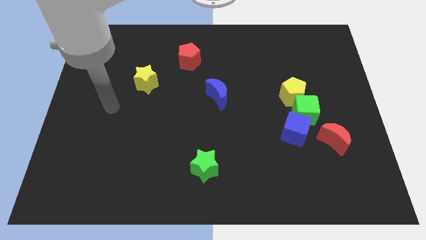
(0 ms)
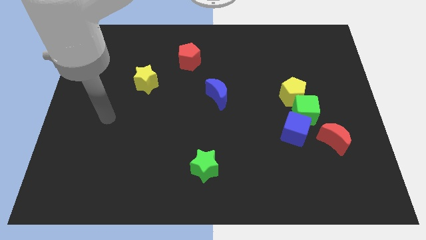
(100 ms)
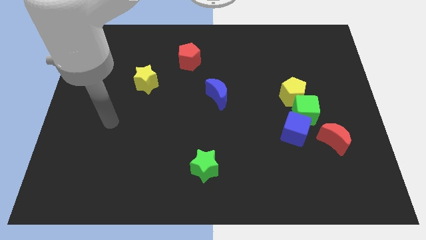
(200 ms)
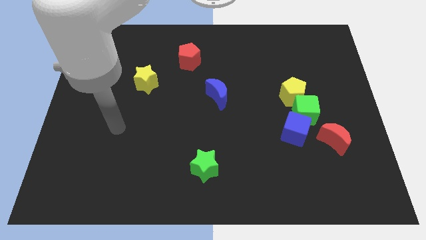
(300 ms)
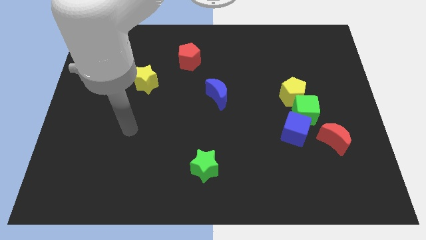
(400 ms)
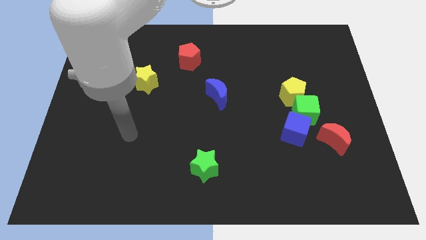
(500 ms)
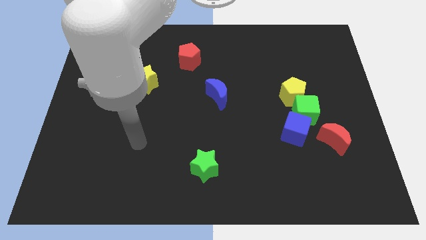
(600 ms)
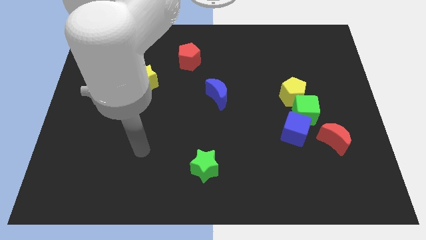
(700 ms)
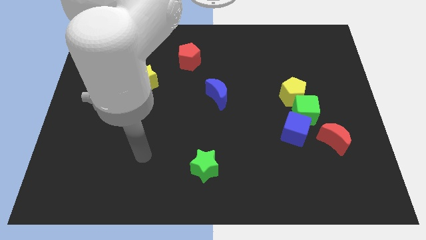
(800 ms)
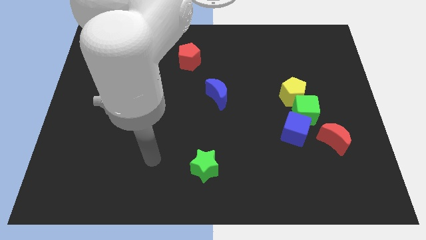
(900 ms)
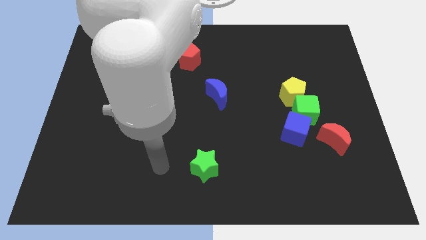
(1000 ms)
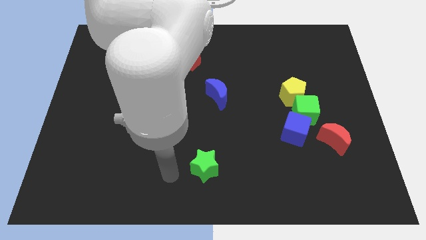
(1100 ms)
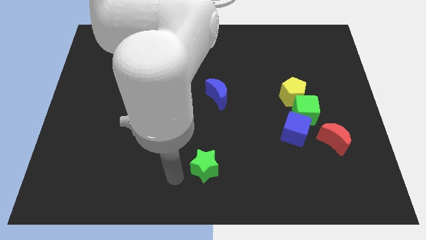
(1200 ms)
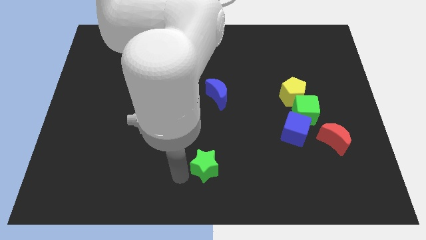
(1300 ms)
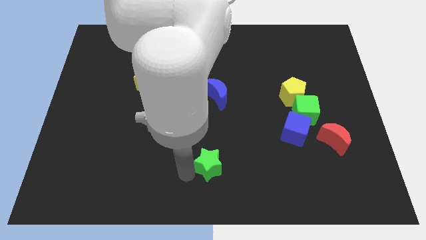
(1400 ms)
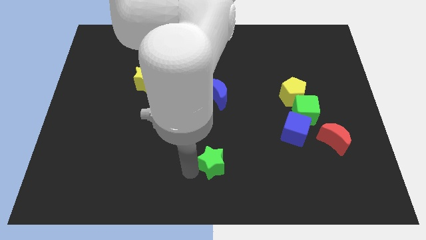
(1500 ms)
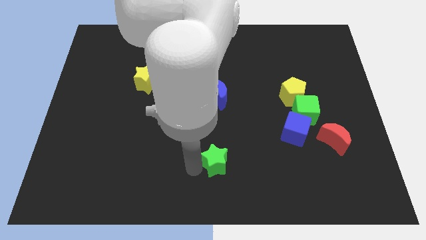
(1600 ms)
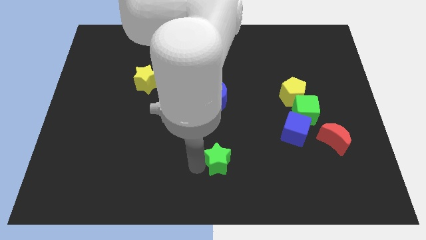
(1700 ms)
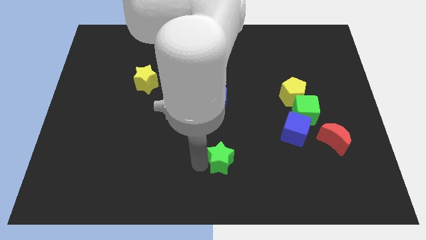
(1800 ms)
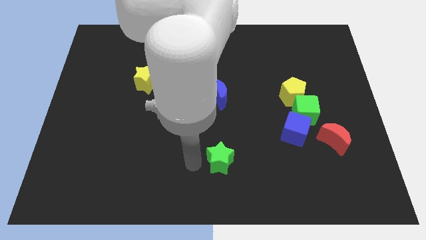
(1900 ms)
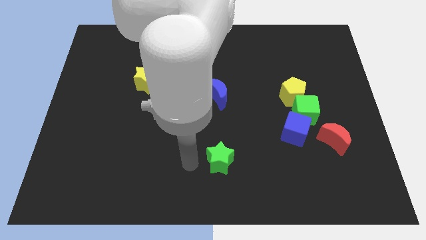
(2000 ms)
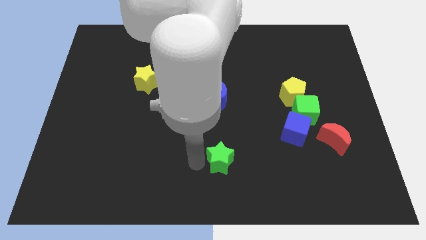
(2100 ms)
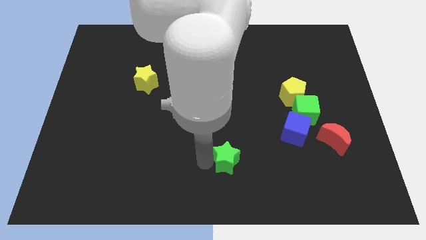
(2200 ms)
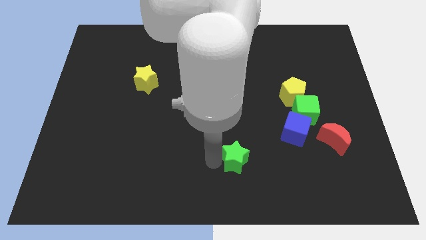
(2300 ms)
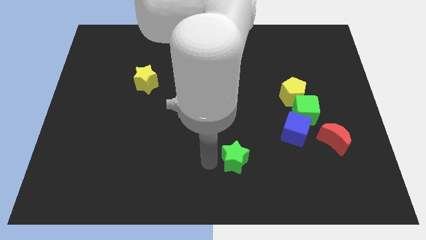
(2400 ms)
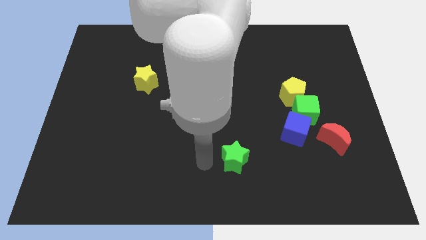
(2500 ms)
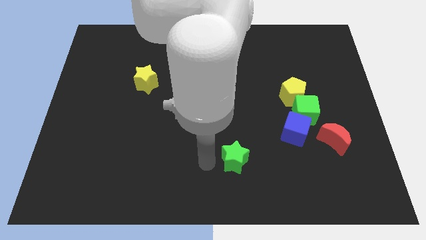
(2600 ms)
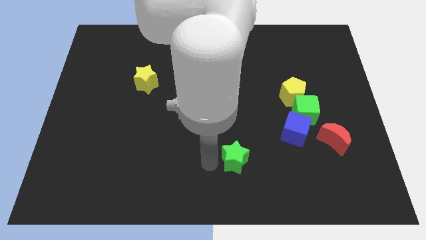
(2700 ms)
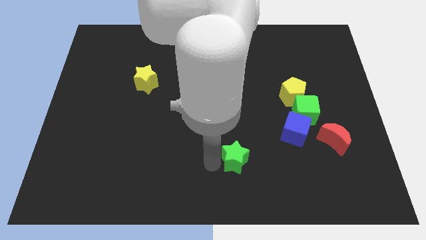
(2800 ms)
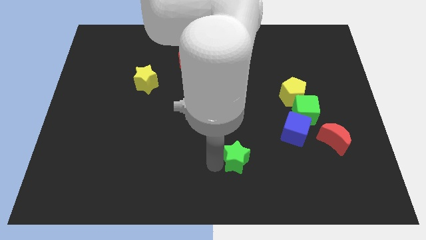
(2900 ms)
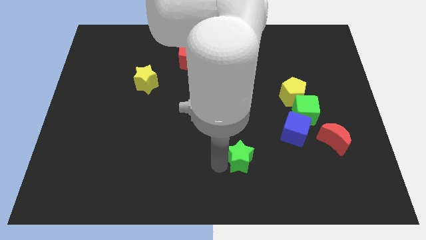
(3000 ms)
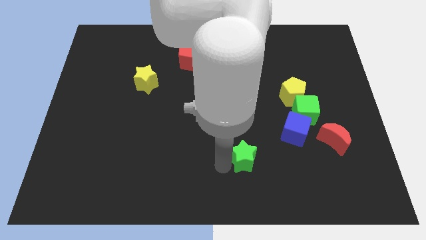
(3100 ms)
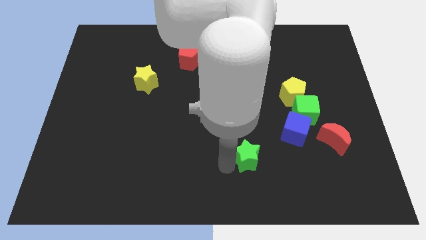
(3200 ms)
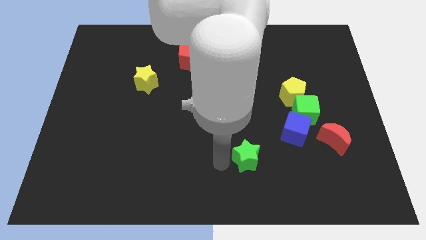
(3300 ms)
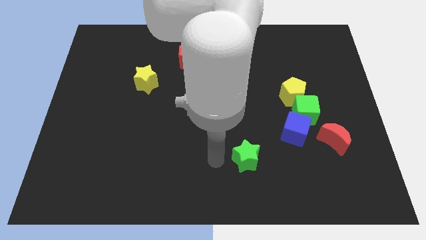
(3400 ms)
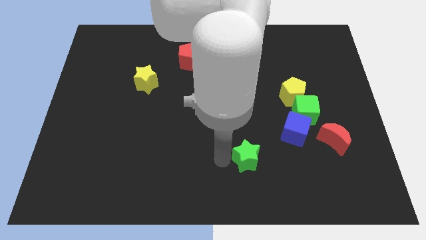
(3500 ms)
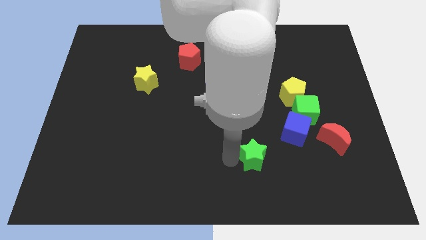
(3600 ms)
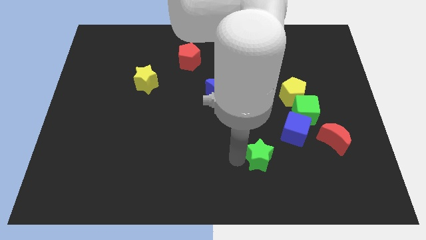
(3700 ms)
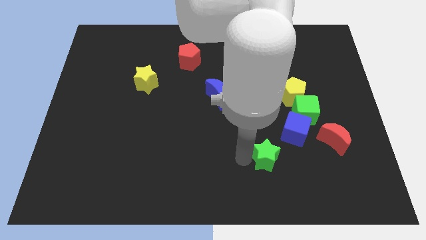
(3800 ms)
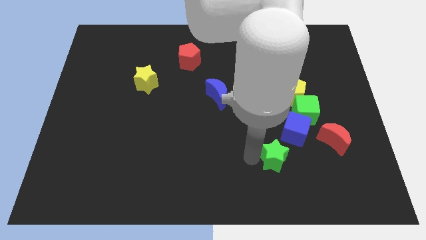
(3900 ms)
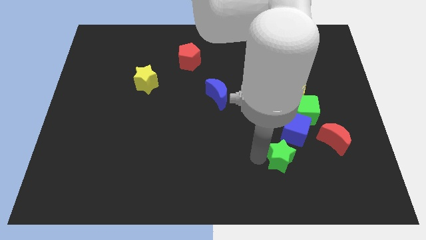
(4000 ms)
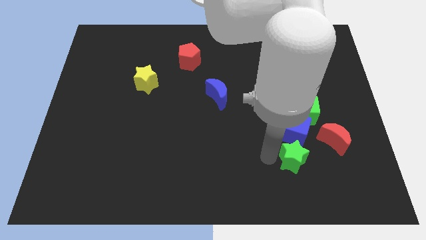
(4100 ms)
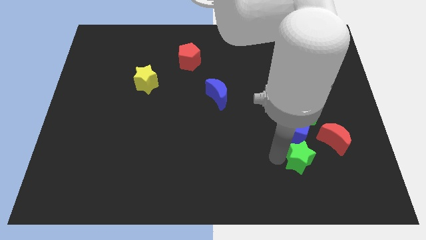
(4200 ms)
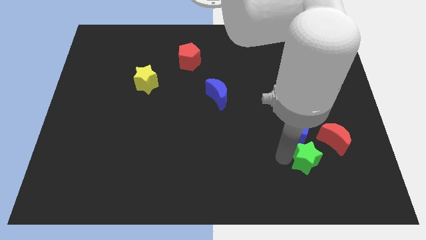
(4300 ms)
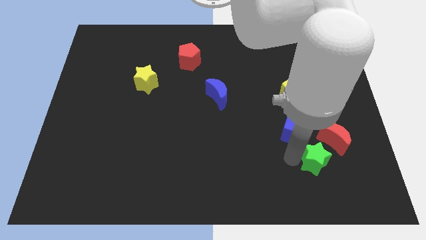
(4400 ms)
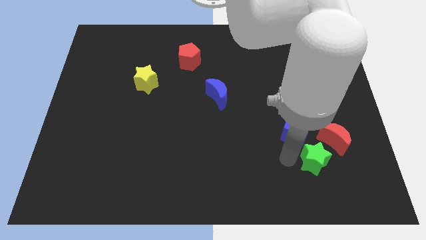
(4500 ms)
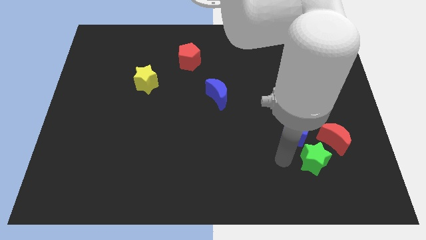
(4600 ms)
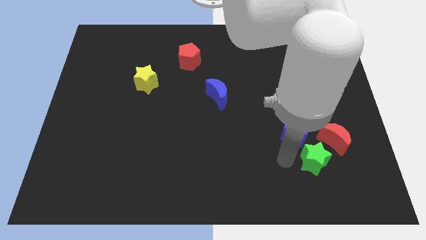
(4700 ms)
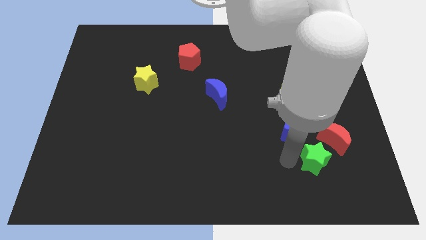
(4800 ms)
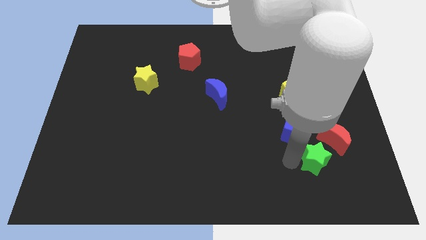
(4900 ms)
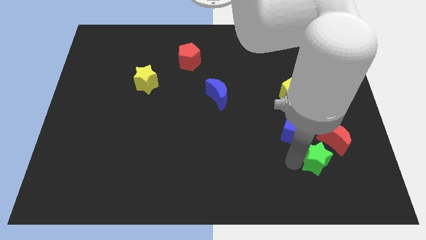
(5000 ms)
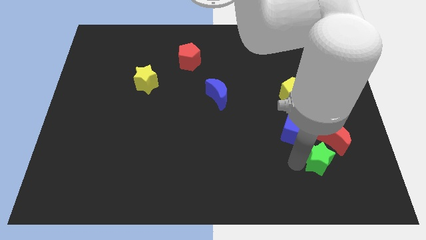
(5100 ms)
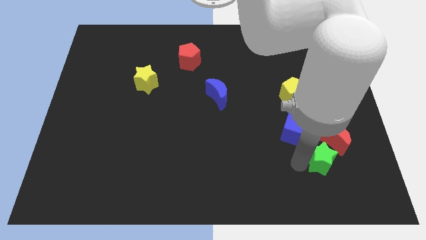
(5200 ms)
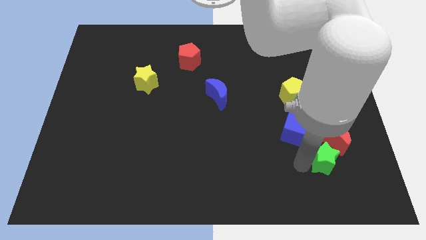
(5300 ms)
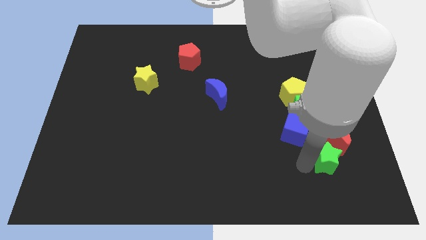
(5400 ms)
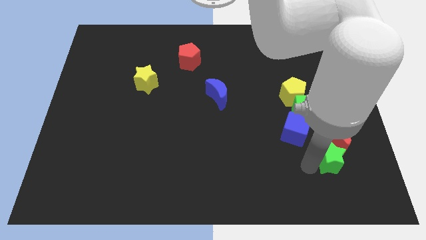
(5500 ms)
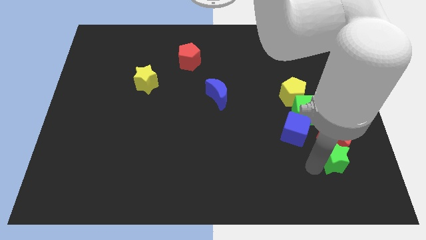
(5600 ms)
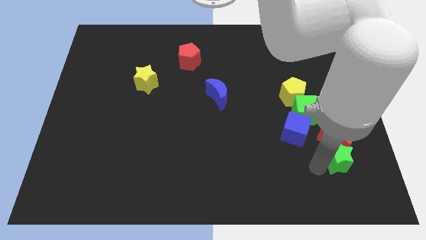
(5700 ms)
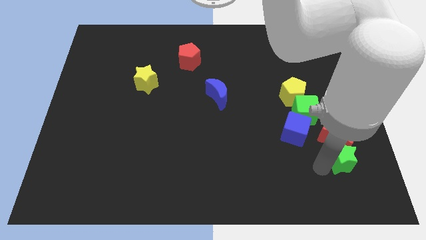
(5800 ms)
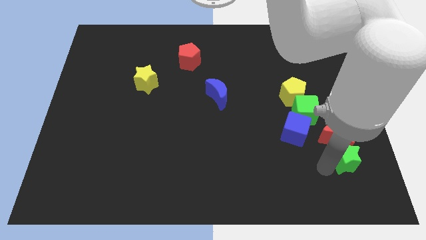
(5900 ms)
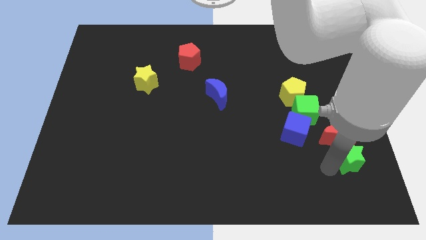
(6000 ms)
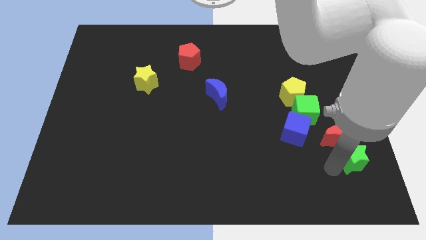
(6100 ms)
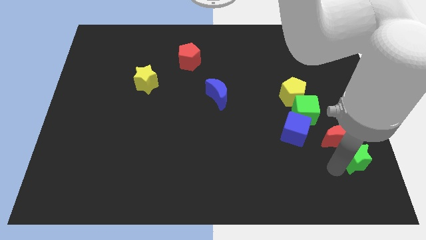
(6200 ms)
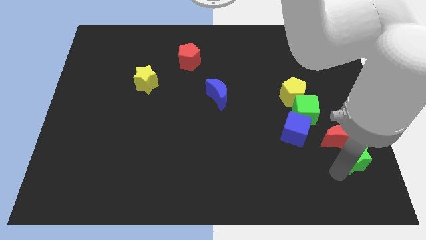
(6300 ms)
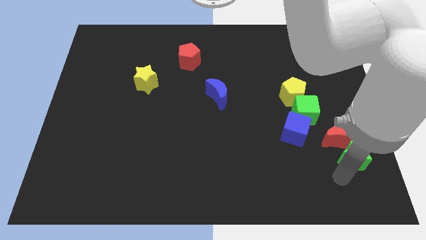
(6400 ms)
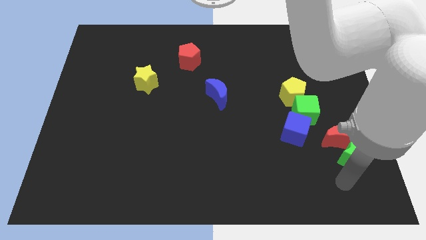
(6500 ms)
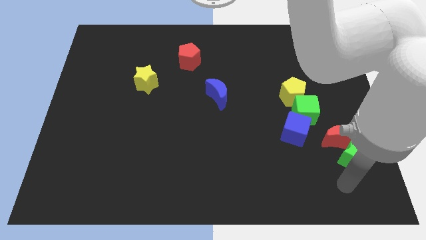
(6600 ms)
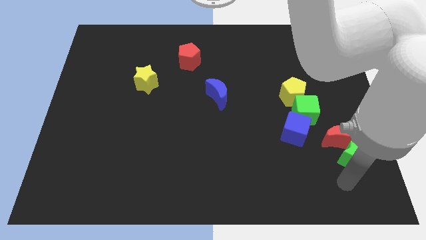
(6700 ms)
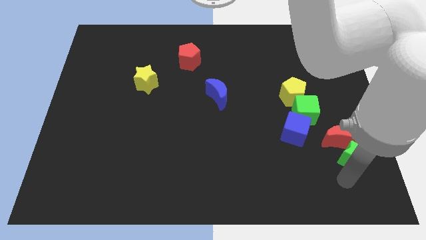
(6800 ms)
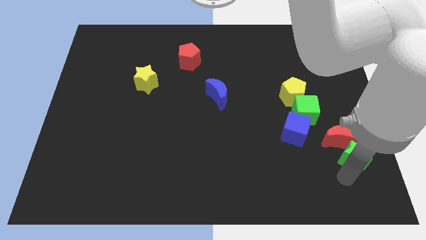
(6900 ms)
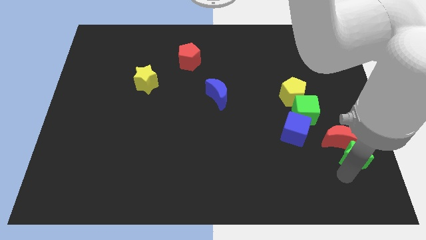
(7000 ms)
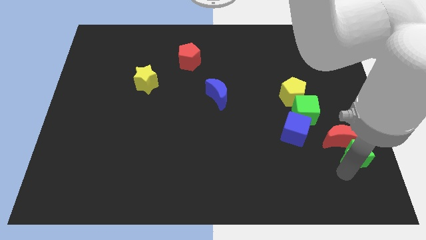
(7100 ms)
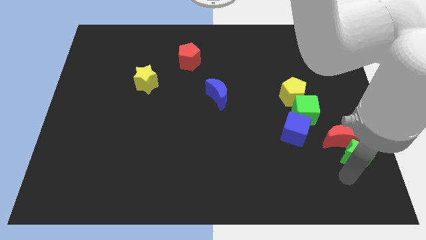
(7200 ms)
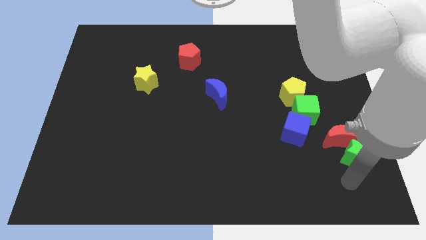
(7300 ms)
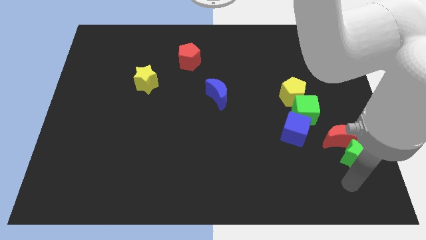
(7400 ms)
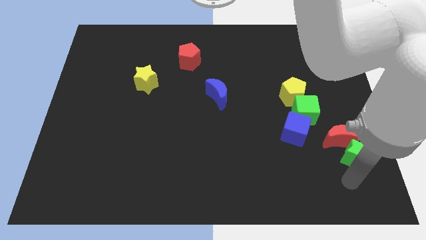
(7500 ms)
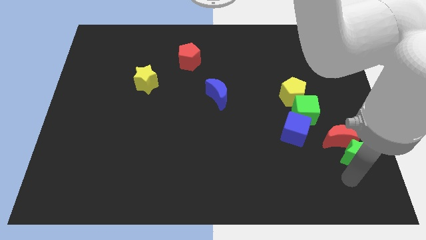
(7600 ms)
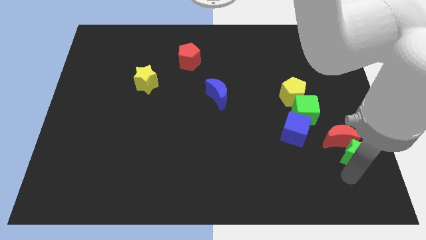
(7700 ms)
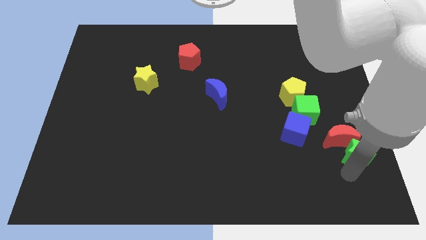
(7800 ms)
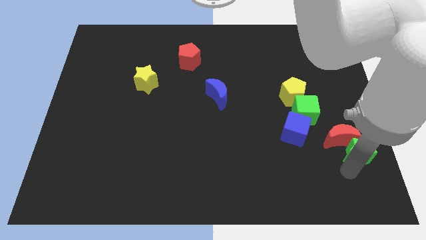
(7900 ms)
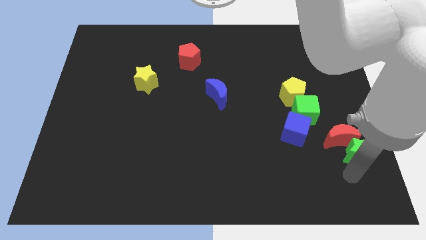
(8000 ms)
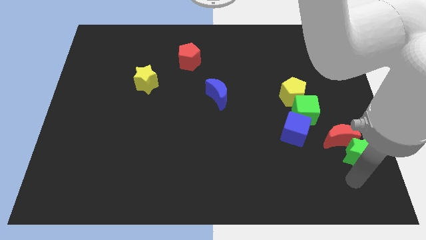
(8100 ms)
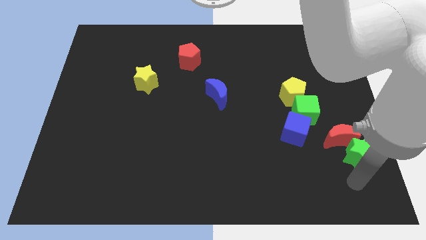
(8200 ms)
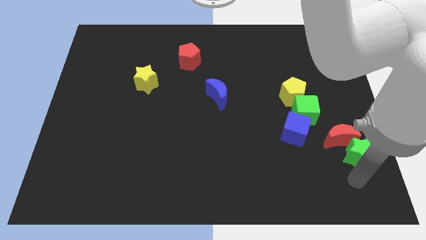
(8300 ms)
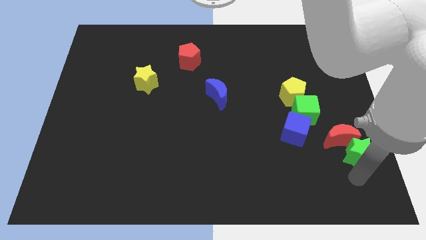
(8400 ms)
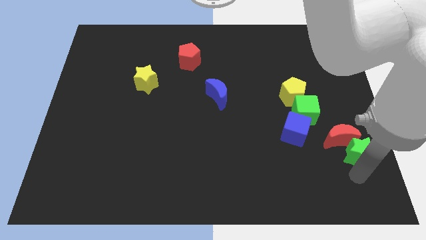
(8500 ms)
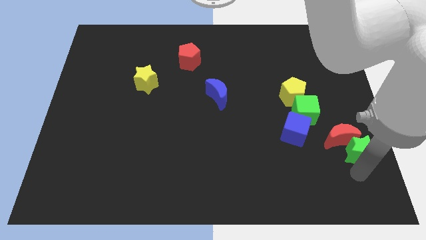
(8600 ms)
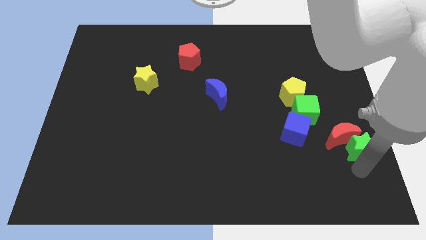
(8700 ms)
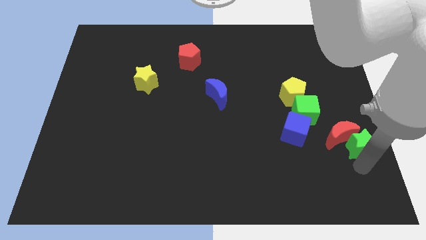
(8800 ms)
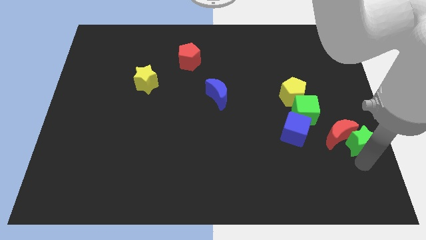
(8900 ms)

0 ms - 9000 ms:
slide the green star to the right side
